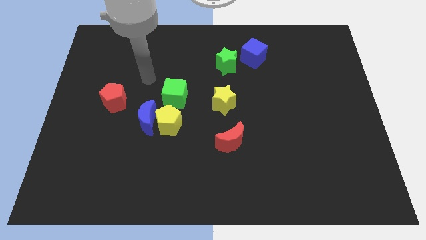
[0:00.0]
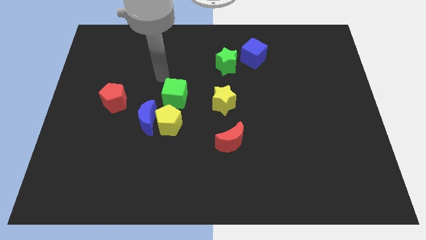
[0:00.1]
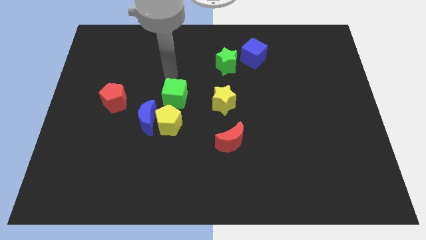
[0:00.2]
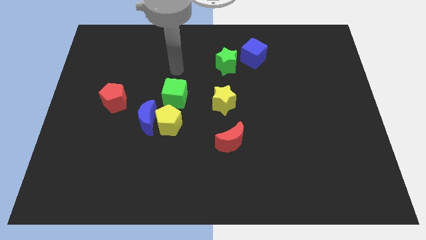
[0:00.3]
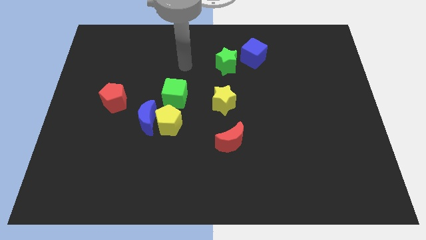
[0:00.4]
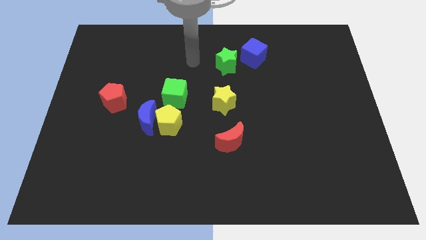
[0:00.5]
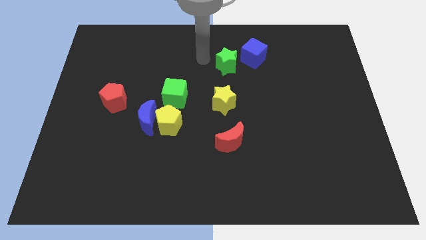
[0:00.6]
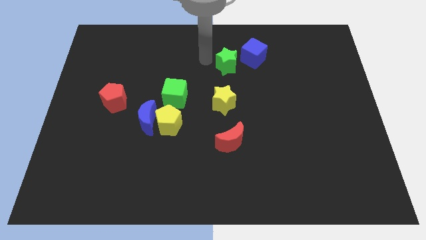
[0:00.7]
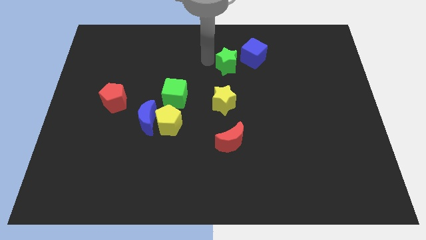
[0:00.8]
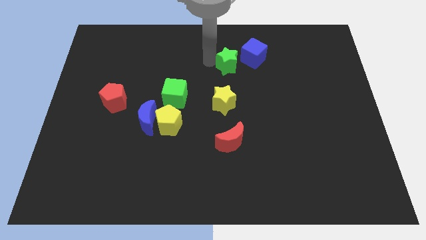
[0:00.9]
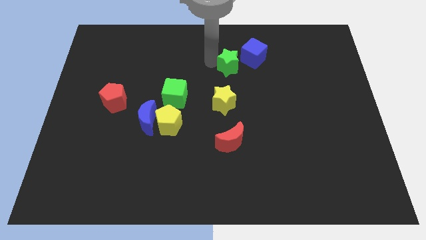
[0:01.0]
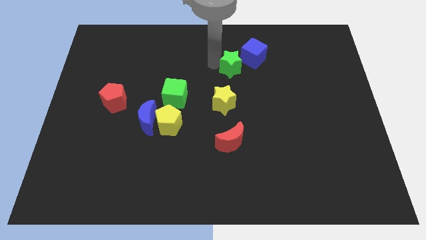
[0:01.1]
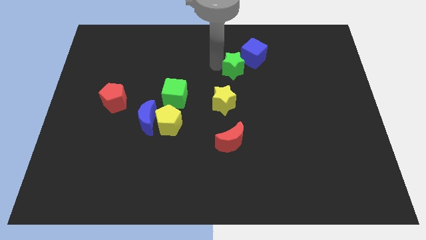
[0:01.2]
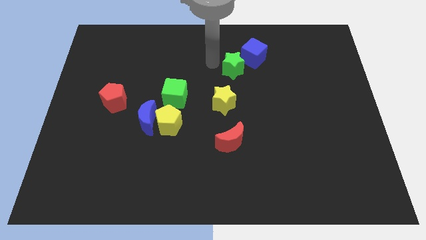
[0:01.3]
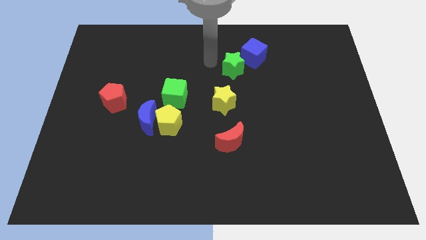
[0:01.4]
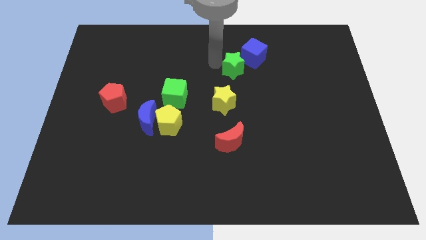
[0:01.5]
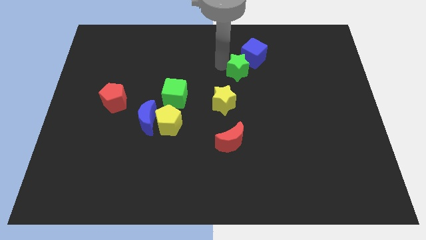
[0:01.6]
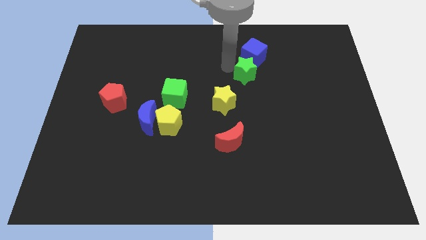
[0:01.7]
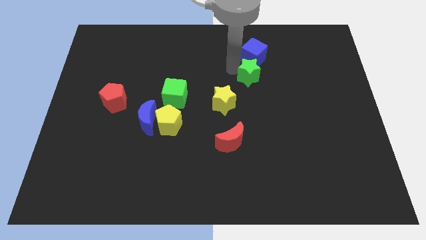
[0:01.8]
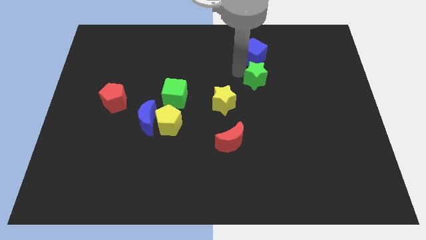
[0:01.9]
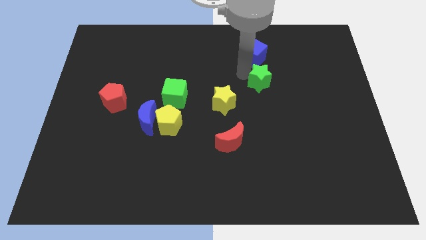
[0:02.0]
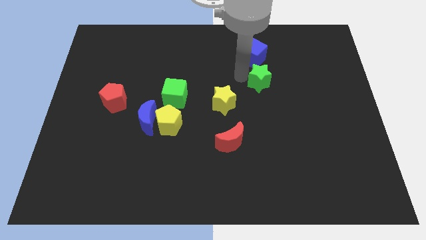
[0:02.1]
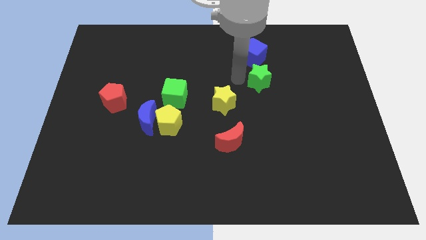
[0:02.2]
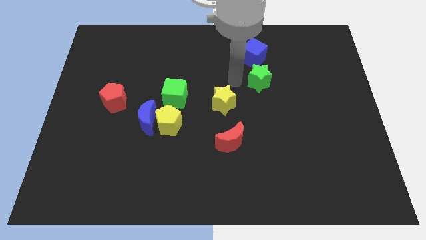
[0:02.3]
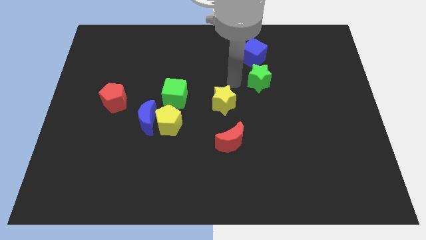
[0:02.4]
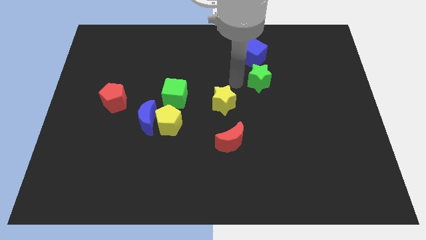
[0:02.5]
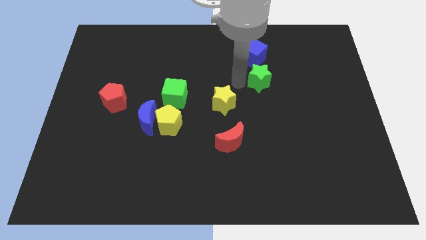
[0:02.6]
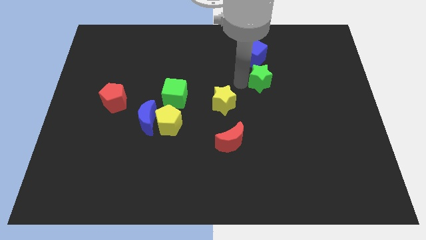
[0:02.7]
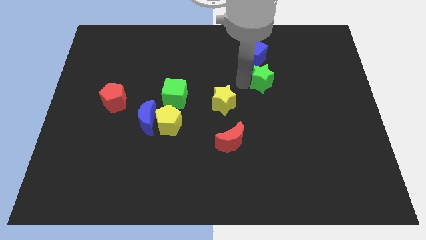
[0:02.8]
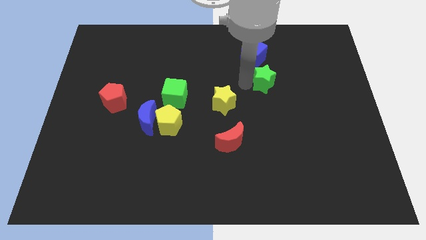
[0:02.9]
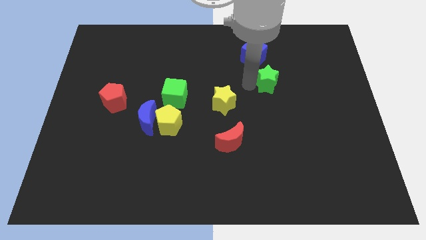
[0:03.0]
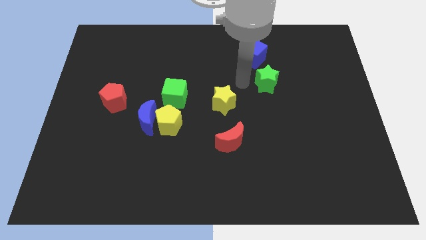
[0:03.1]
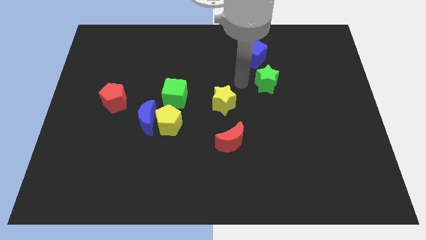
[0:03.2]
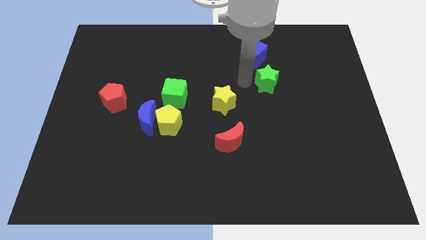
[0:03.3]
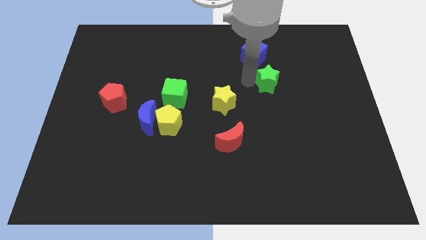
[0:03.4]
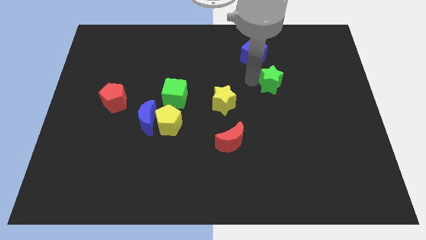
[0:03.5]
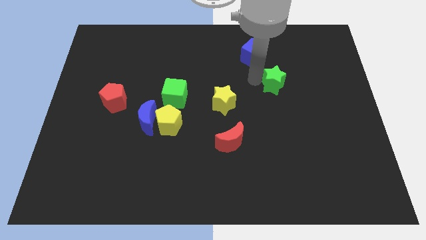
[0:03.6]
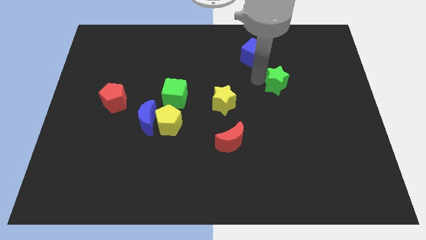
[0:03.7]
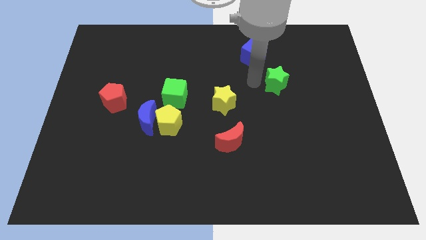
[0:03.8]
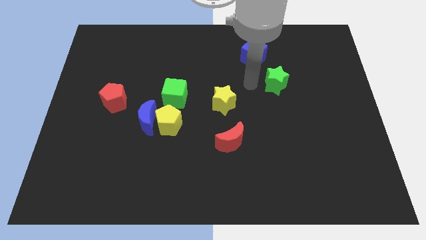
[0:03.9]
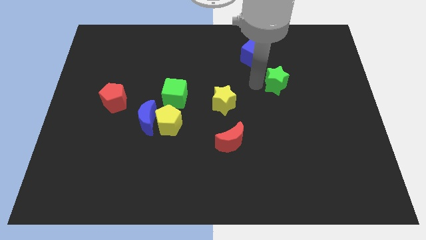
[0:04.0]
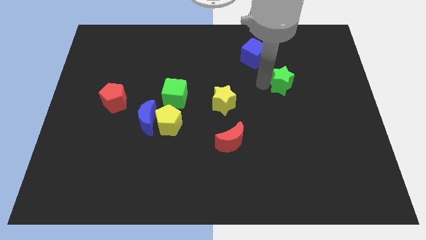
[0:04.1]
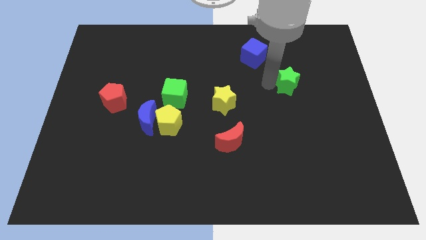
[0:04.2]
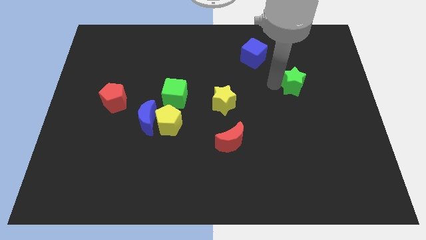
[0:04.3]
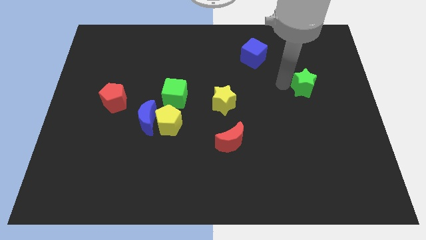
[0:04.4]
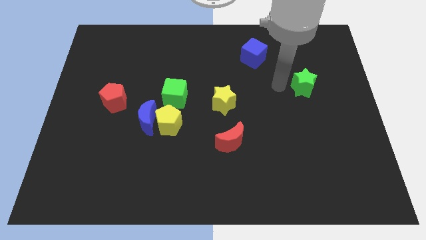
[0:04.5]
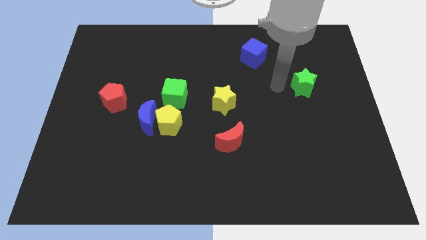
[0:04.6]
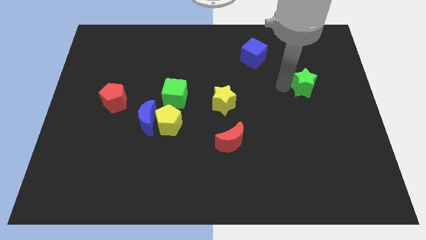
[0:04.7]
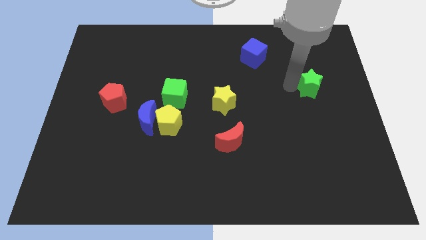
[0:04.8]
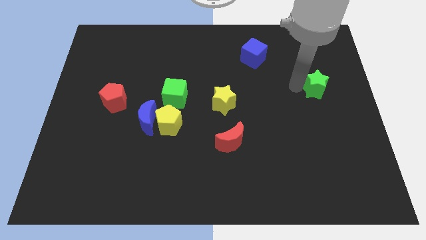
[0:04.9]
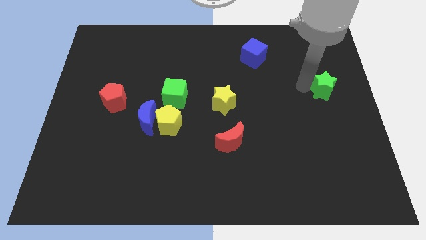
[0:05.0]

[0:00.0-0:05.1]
move the green star to the right side of the board

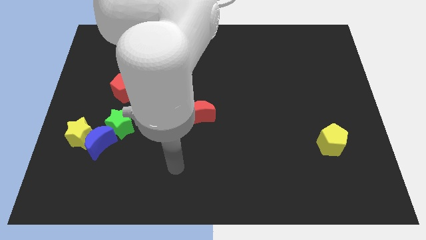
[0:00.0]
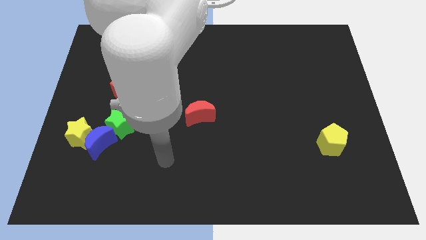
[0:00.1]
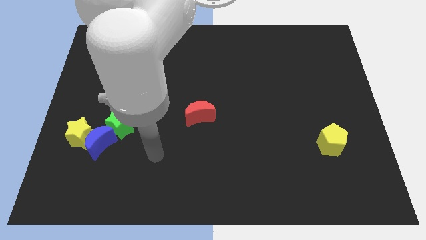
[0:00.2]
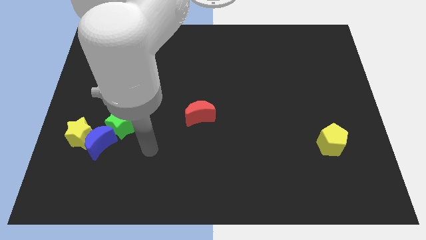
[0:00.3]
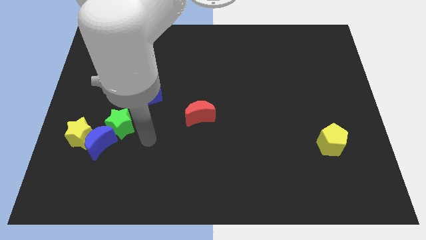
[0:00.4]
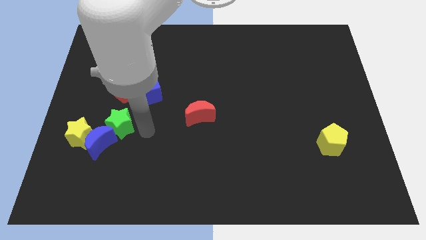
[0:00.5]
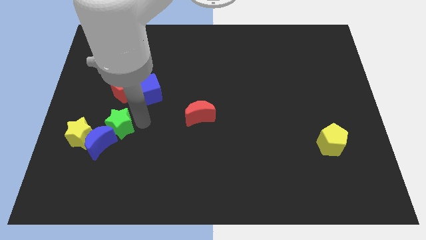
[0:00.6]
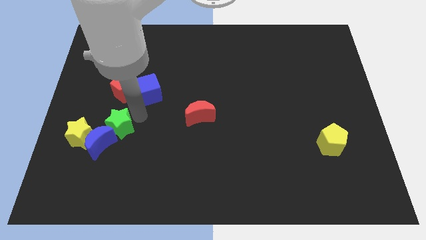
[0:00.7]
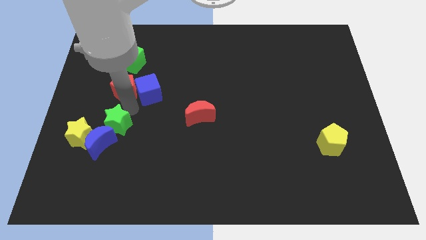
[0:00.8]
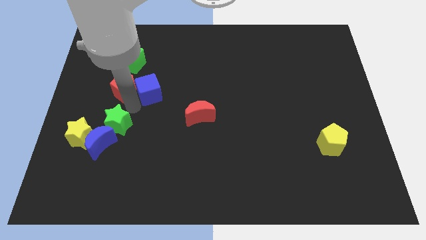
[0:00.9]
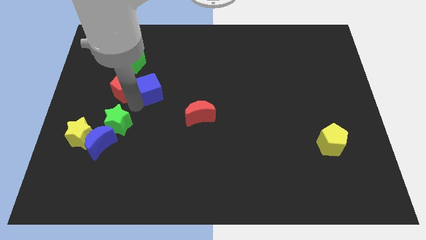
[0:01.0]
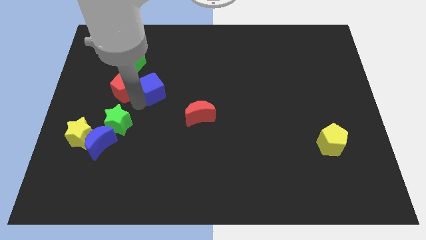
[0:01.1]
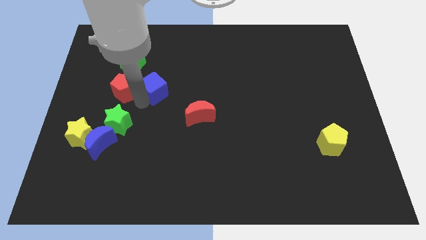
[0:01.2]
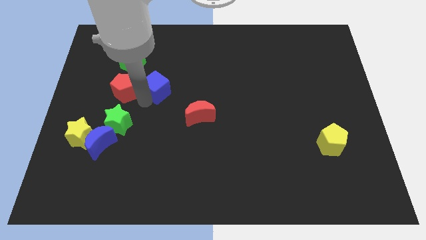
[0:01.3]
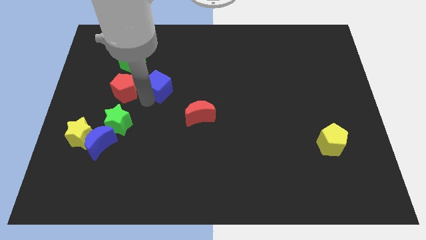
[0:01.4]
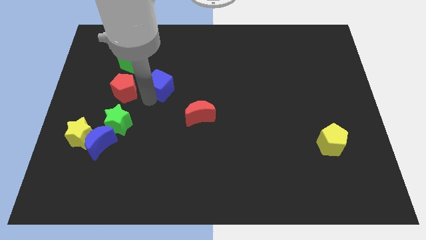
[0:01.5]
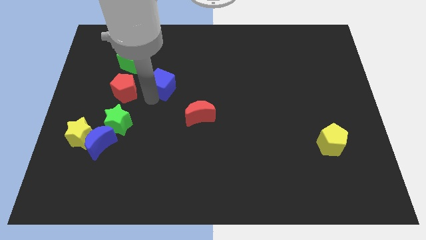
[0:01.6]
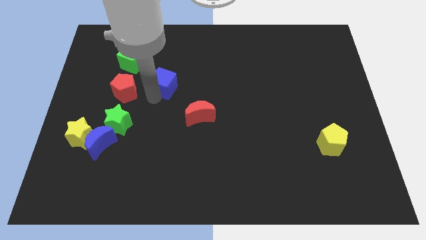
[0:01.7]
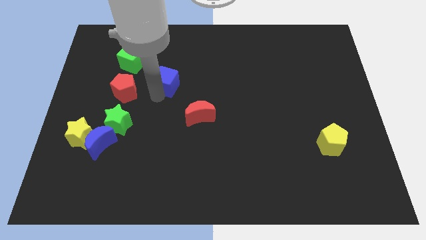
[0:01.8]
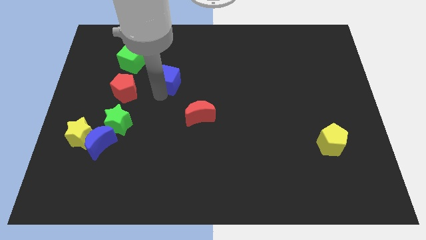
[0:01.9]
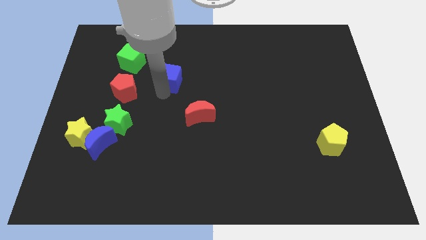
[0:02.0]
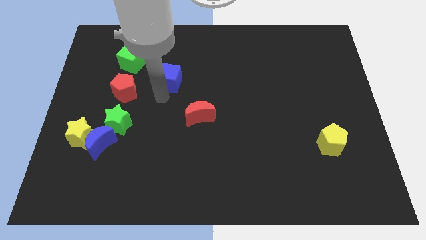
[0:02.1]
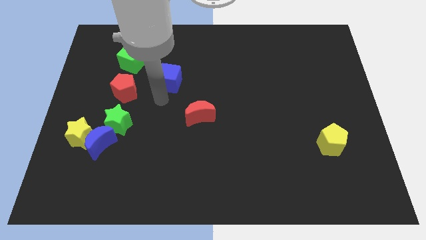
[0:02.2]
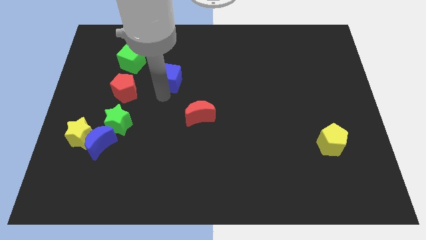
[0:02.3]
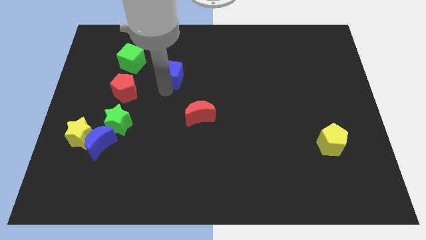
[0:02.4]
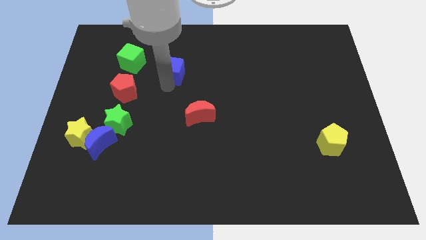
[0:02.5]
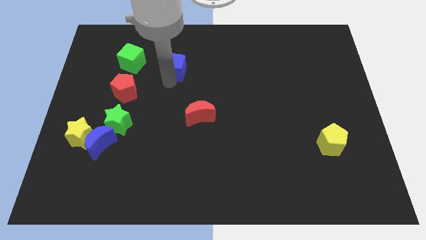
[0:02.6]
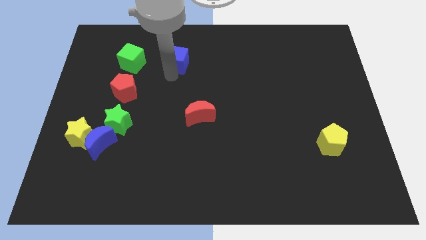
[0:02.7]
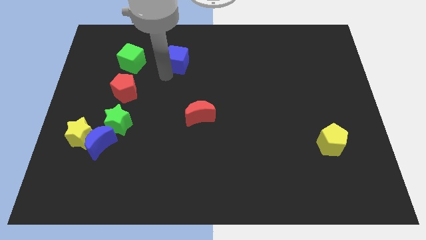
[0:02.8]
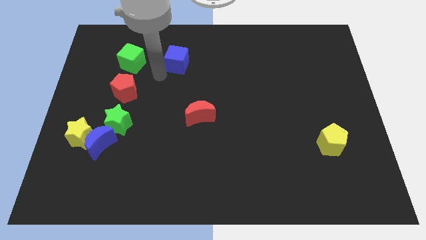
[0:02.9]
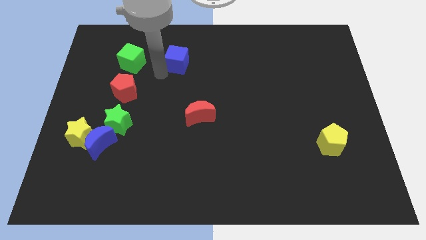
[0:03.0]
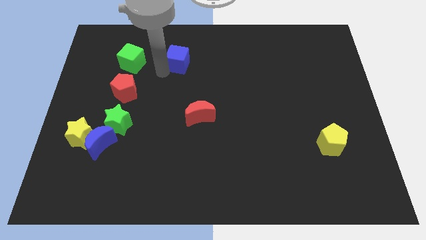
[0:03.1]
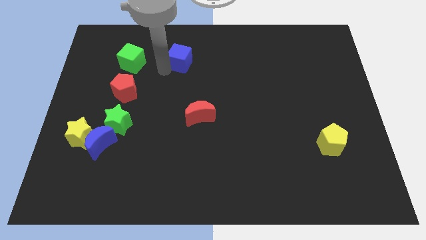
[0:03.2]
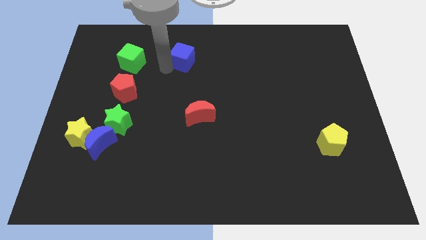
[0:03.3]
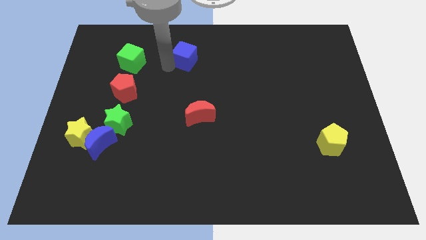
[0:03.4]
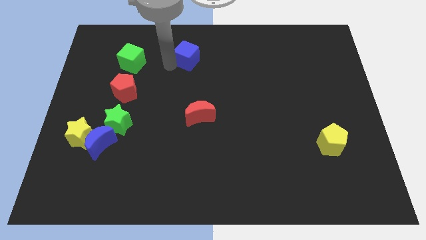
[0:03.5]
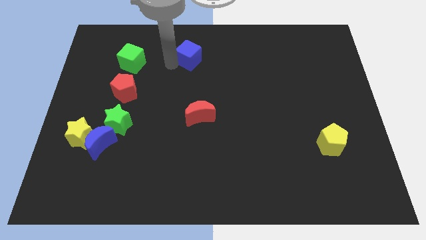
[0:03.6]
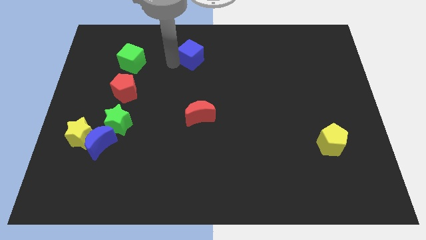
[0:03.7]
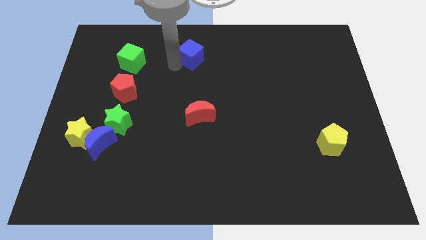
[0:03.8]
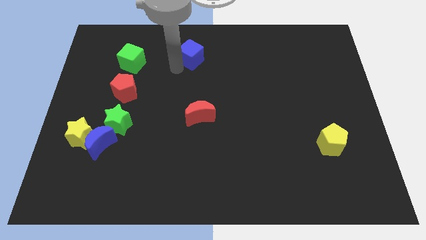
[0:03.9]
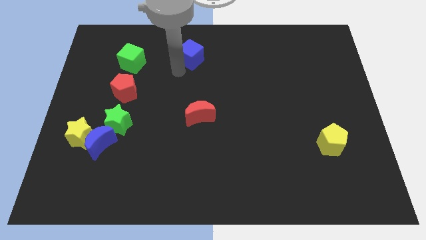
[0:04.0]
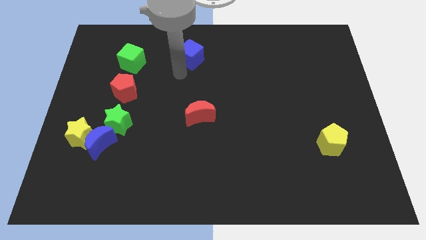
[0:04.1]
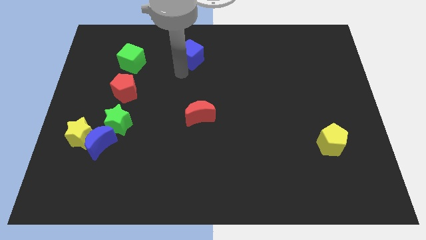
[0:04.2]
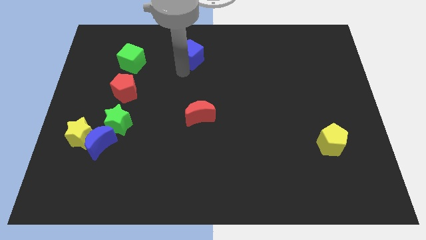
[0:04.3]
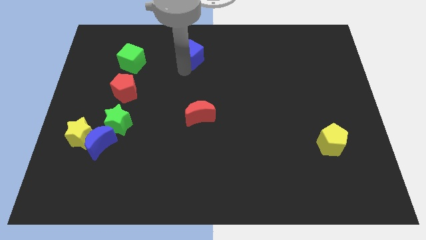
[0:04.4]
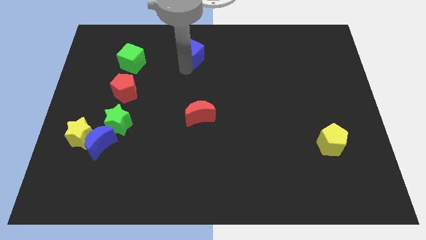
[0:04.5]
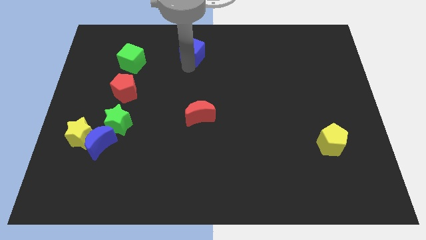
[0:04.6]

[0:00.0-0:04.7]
put the blue cube to the top side
